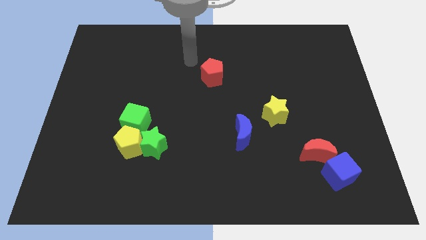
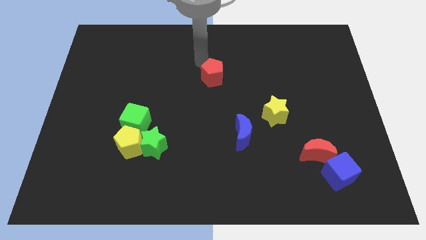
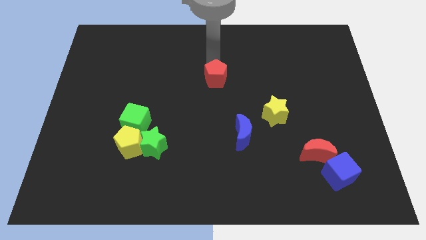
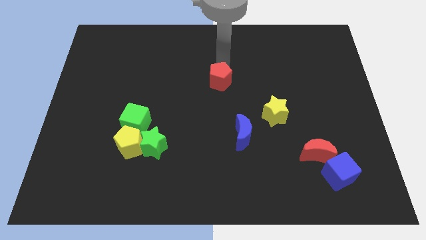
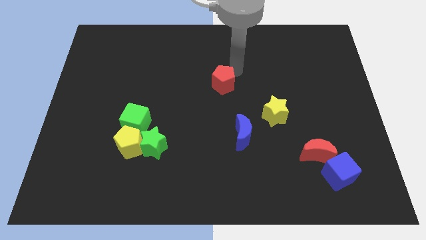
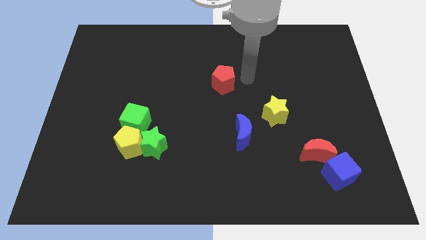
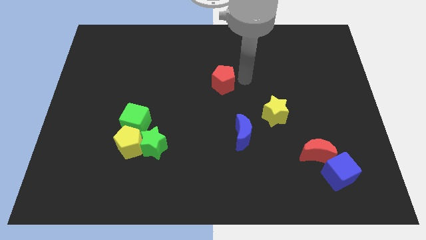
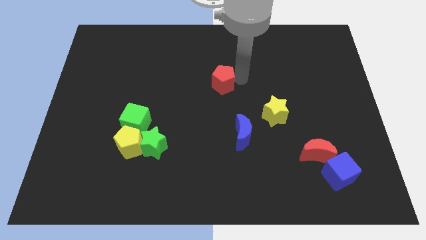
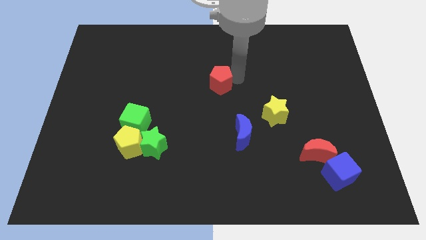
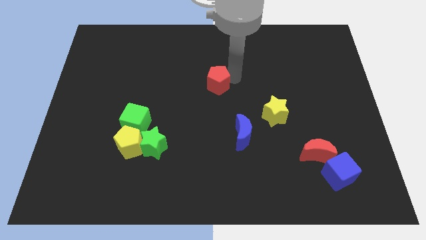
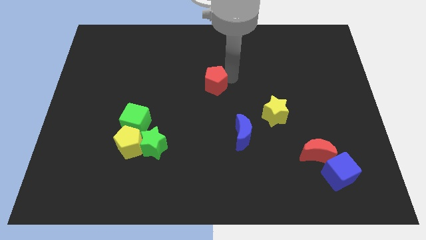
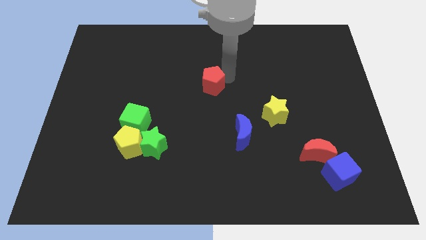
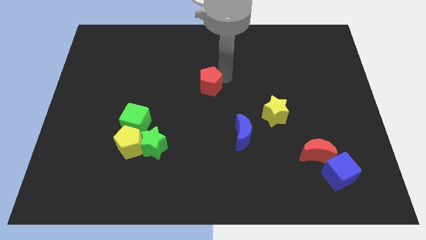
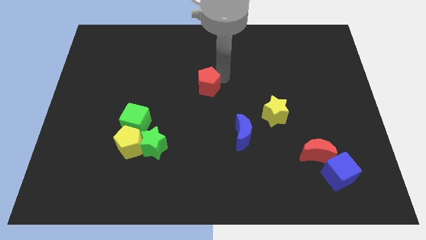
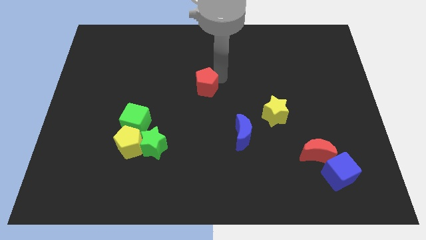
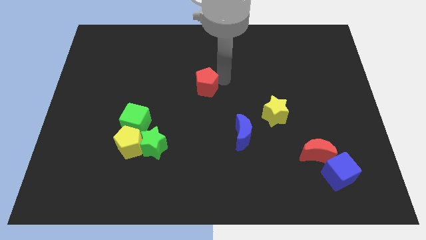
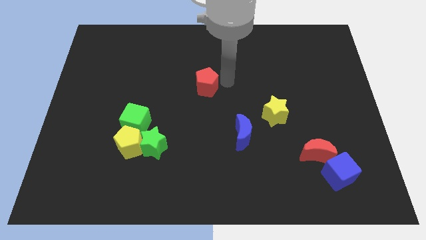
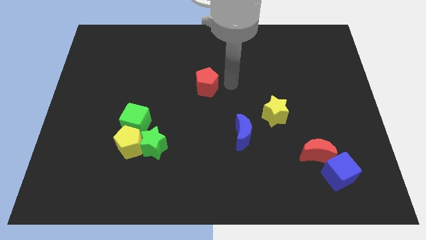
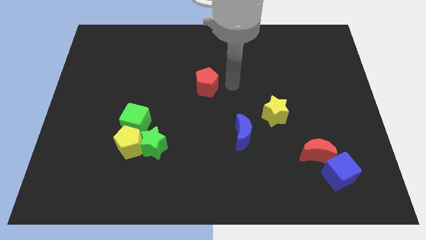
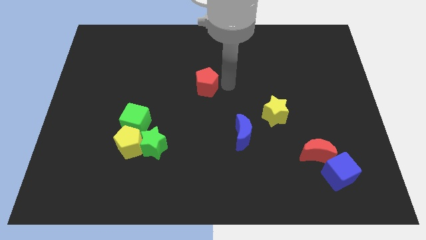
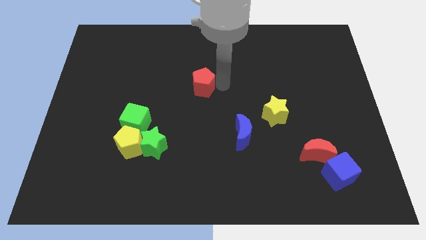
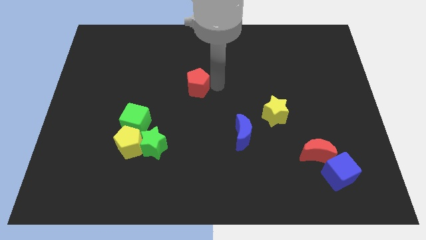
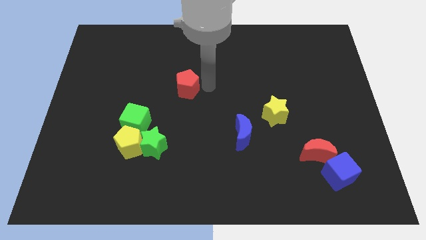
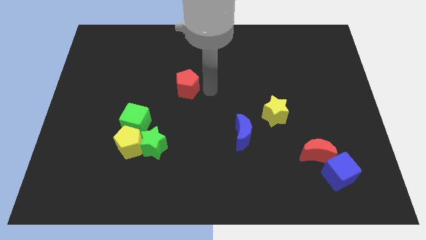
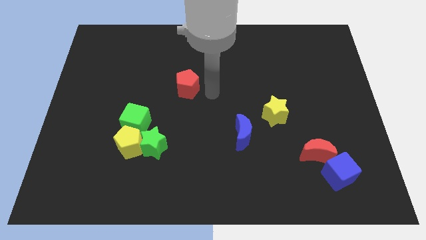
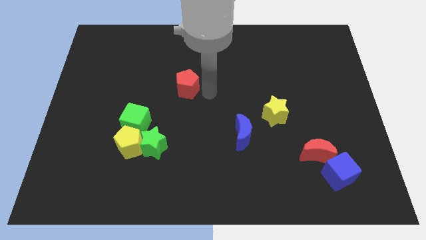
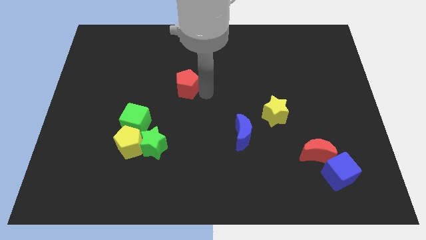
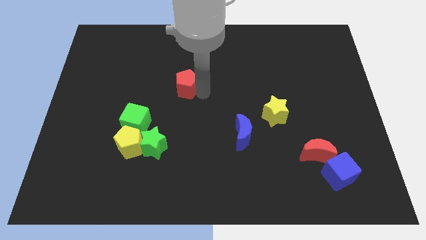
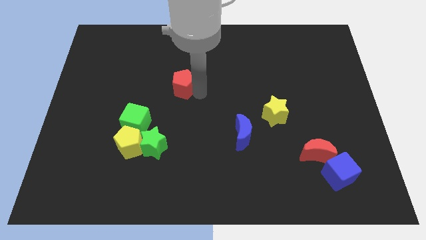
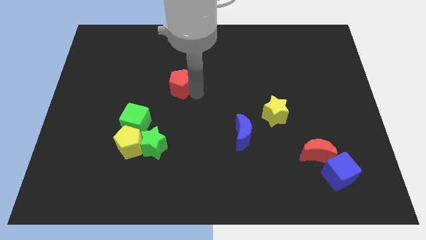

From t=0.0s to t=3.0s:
push the red pentagon a little bit left

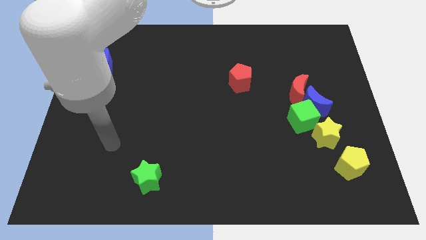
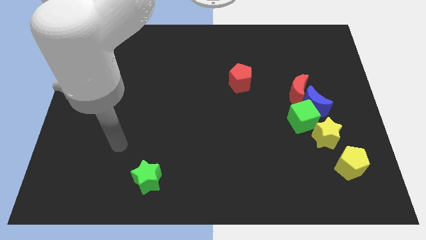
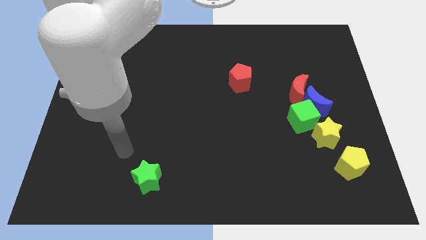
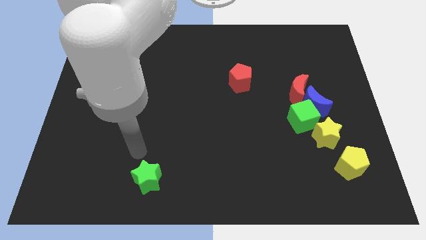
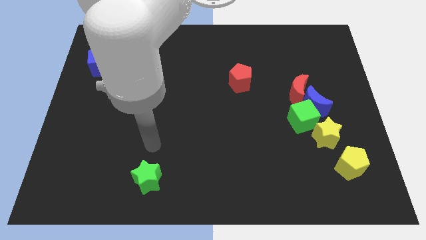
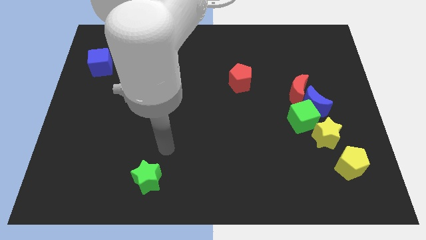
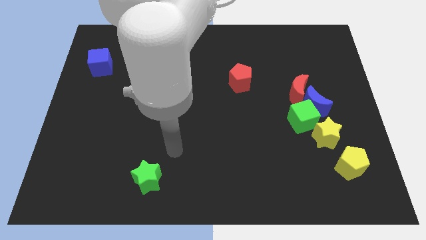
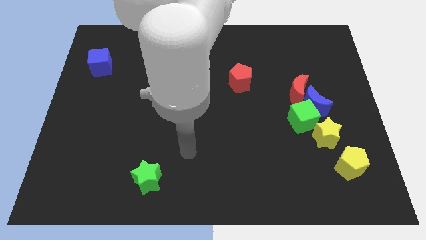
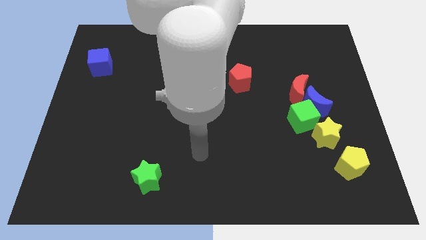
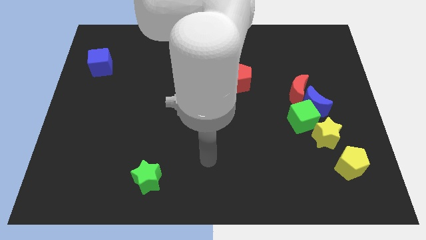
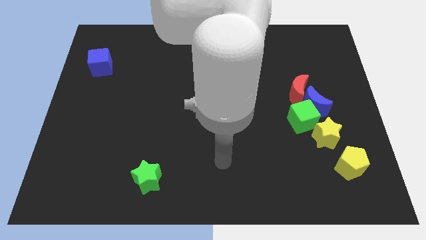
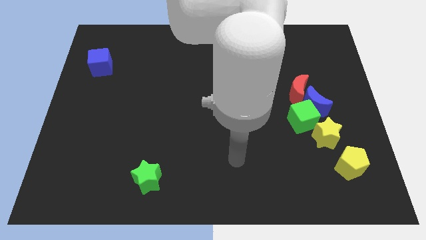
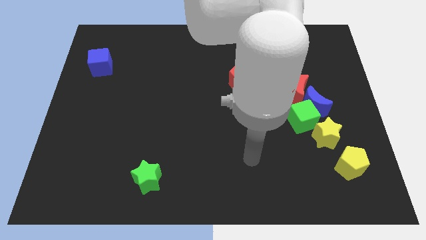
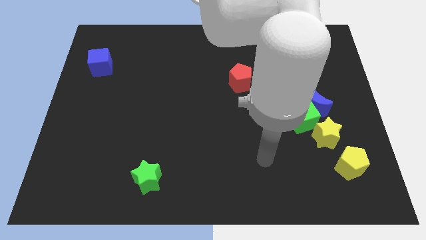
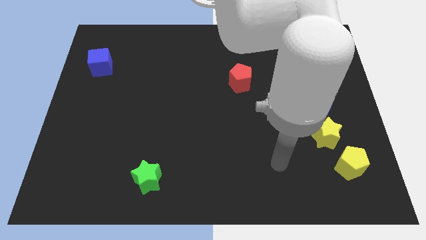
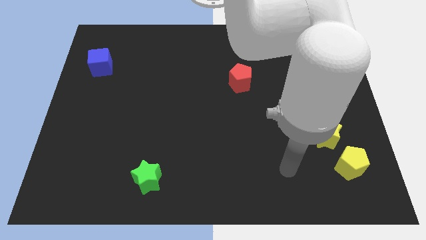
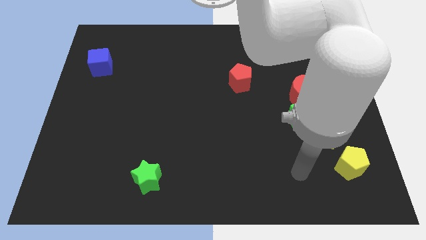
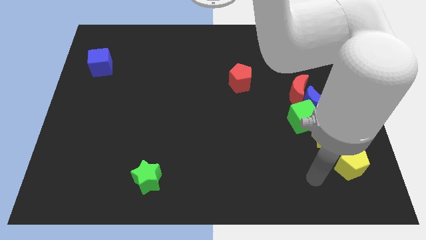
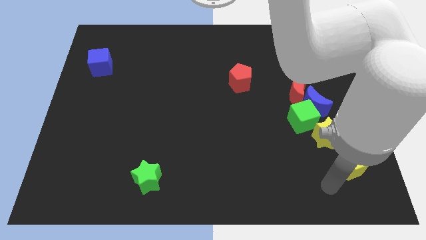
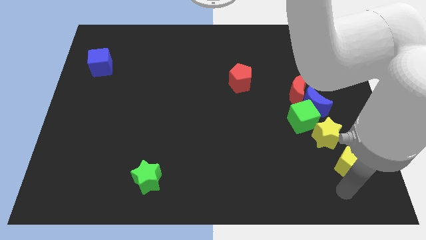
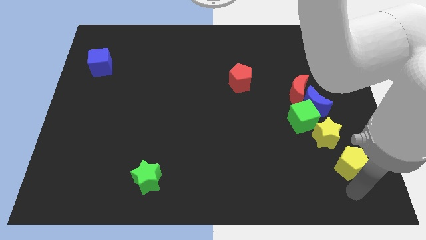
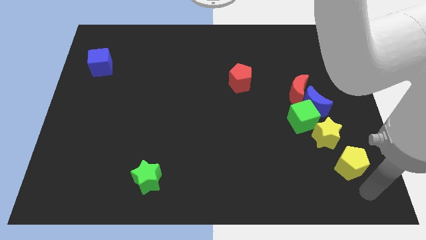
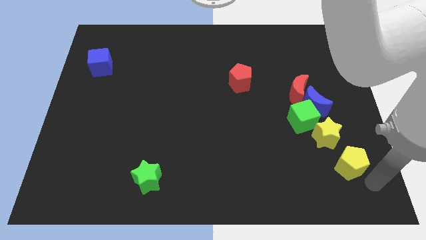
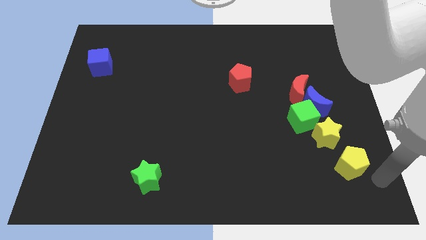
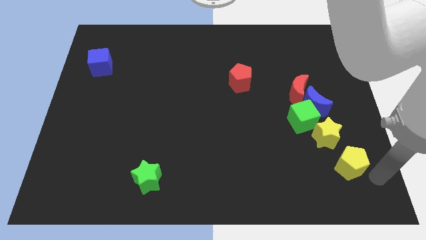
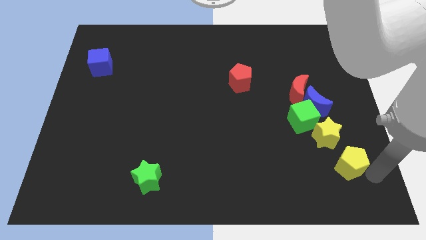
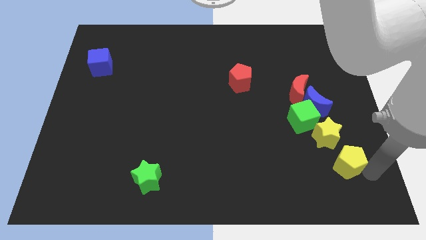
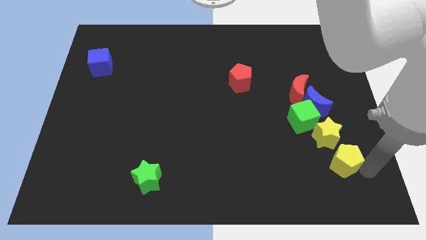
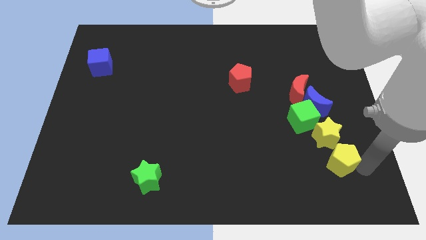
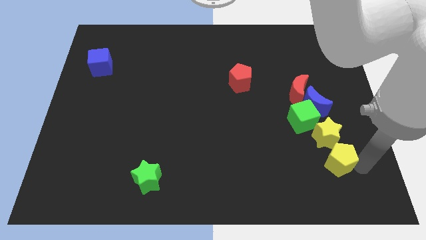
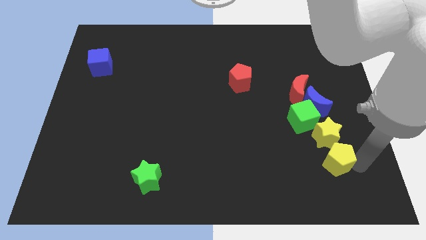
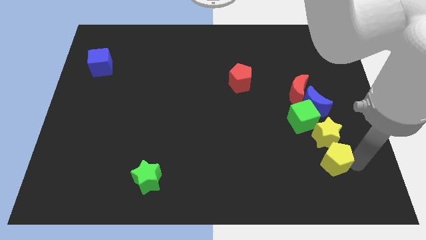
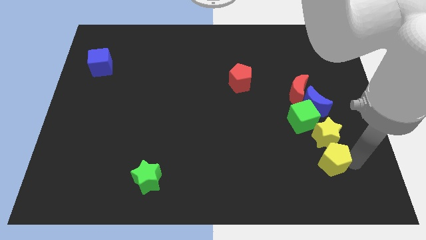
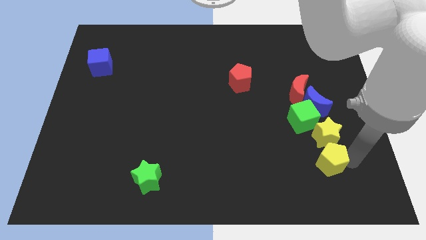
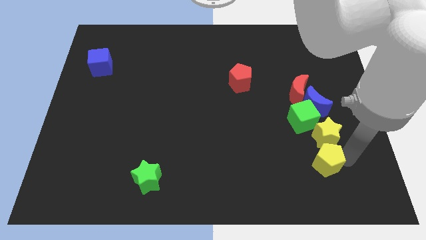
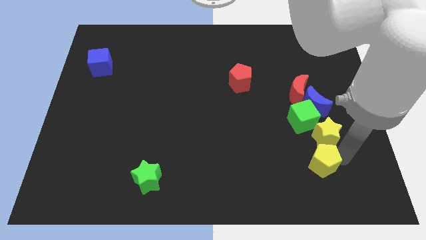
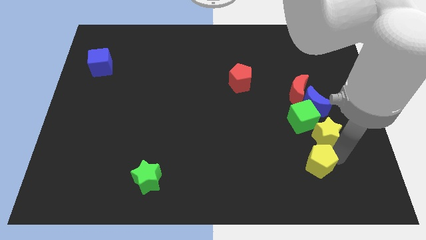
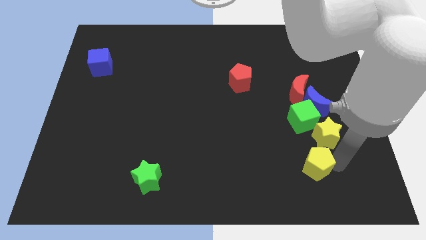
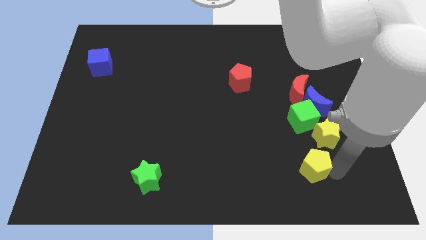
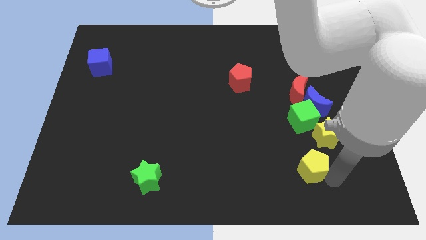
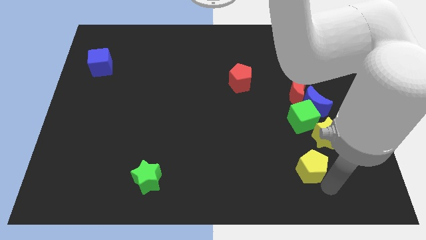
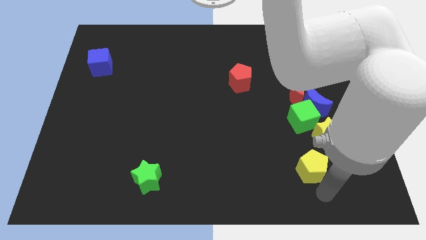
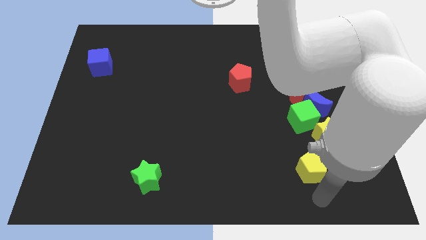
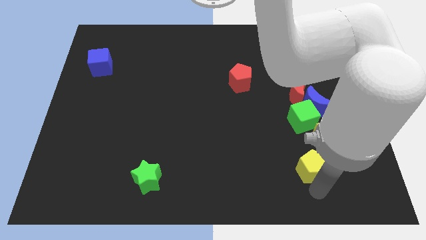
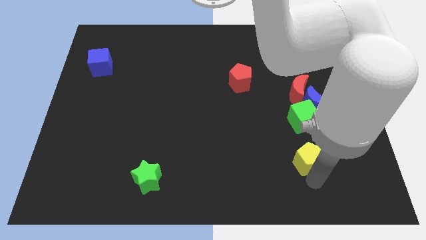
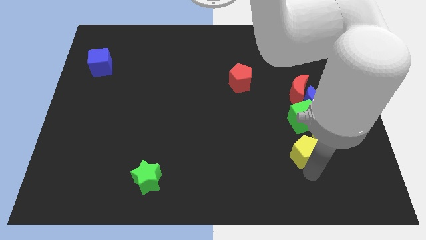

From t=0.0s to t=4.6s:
slide the yellow pentagon upwards and left a little bit
